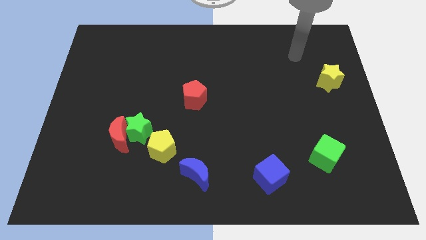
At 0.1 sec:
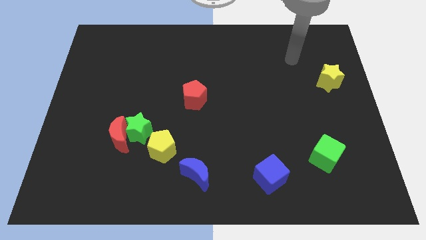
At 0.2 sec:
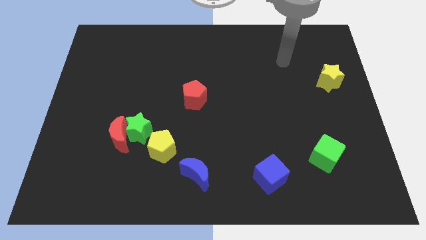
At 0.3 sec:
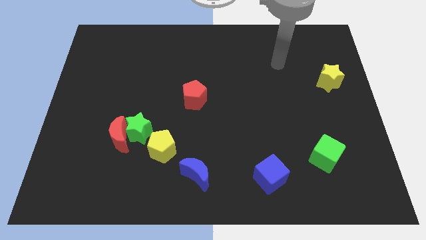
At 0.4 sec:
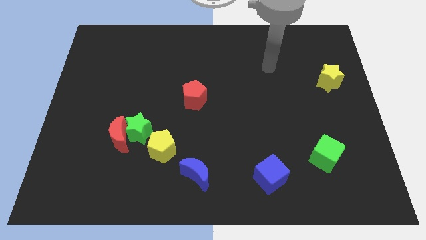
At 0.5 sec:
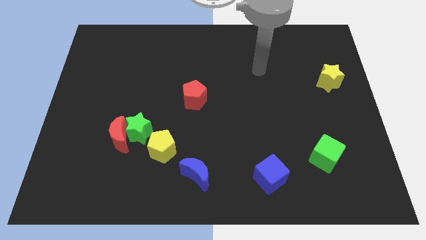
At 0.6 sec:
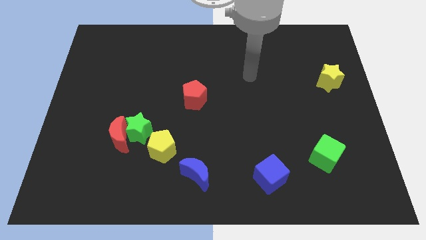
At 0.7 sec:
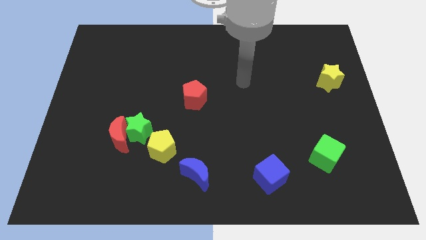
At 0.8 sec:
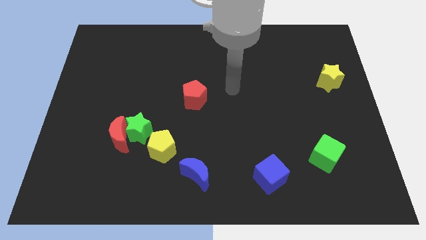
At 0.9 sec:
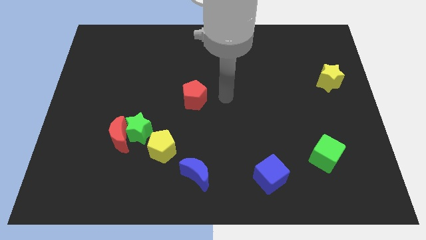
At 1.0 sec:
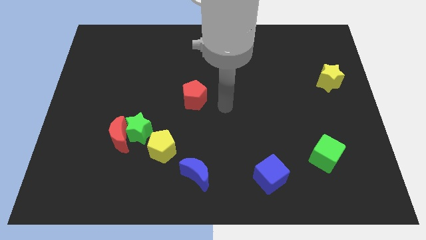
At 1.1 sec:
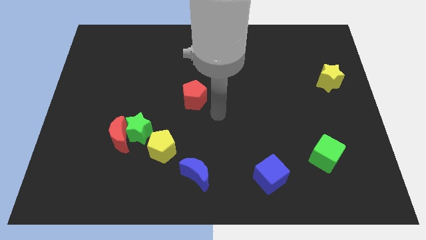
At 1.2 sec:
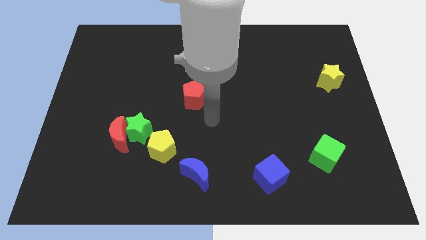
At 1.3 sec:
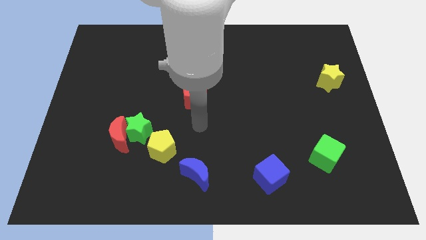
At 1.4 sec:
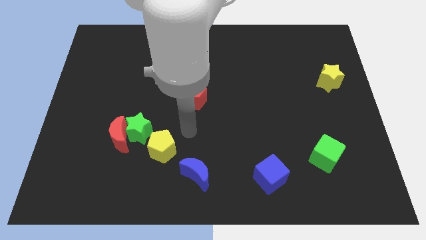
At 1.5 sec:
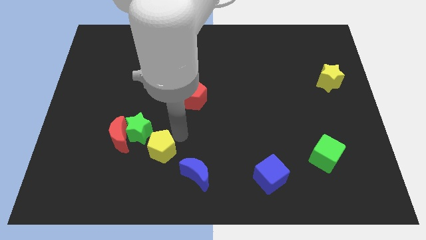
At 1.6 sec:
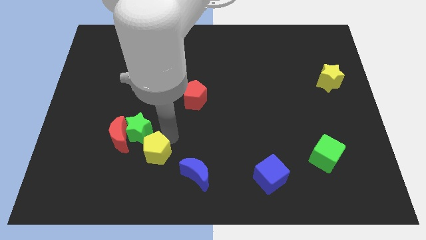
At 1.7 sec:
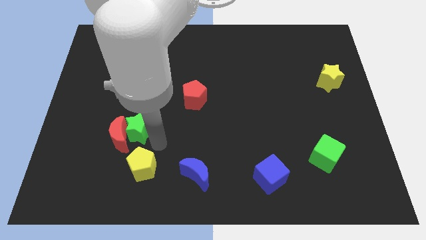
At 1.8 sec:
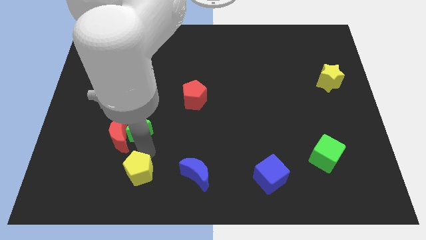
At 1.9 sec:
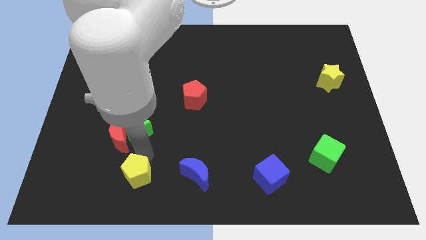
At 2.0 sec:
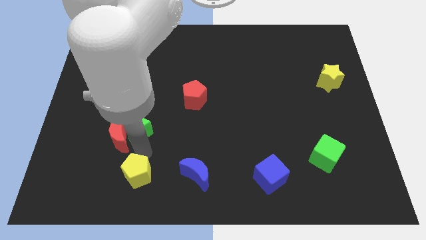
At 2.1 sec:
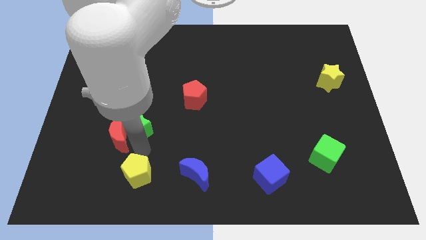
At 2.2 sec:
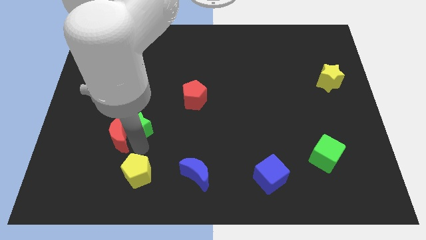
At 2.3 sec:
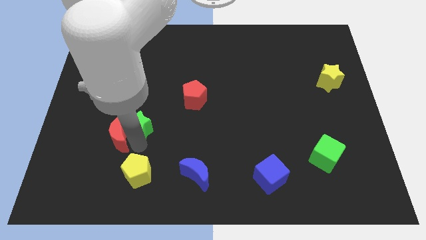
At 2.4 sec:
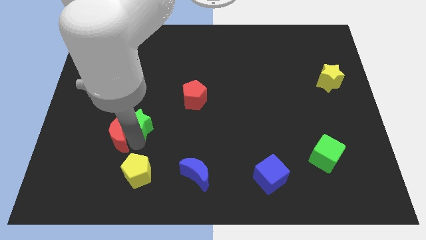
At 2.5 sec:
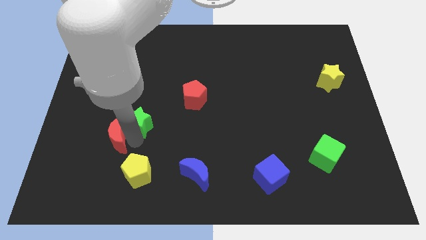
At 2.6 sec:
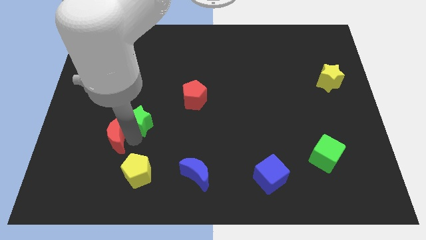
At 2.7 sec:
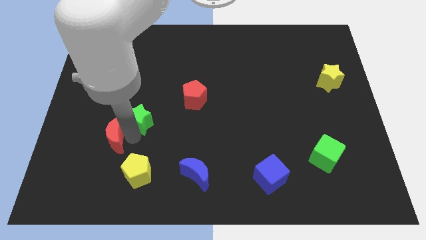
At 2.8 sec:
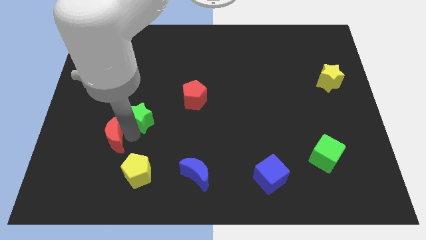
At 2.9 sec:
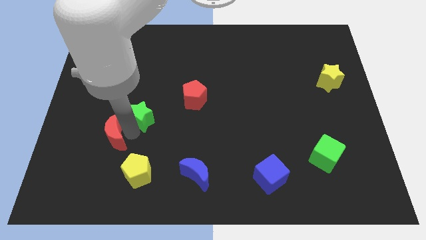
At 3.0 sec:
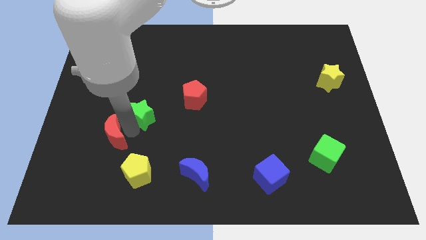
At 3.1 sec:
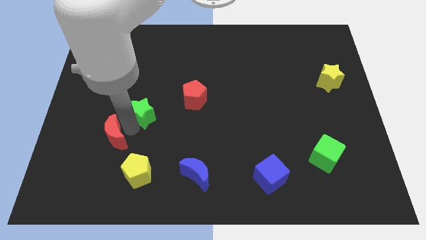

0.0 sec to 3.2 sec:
pull the green star apart from the red moon and yellow pentagon

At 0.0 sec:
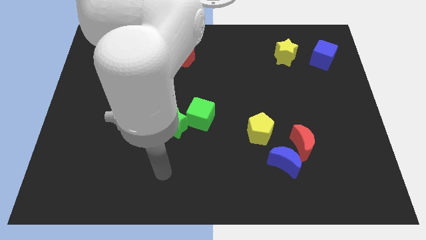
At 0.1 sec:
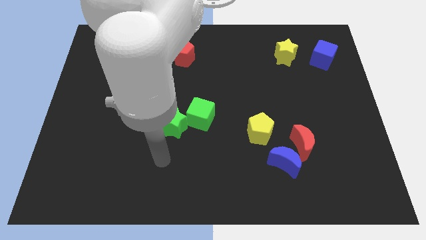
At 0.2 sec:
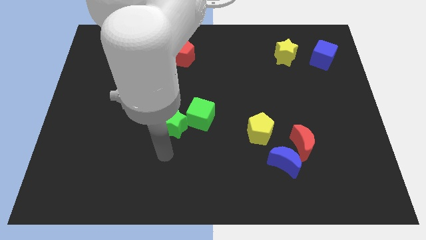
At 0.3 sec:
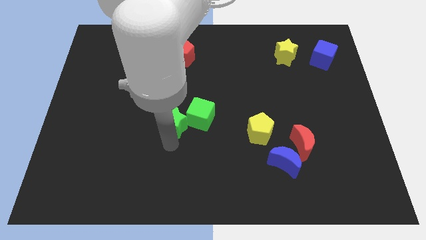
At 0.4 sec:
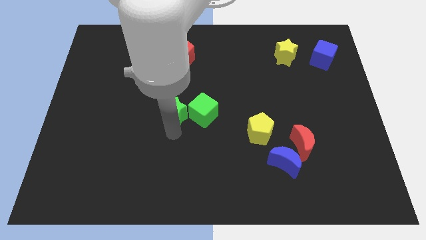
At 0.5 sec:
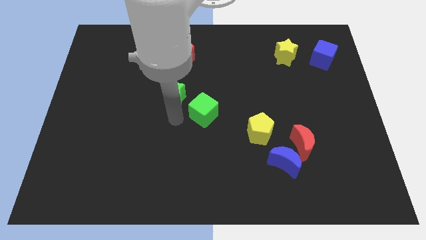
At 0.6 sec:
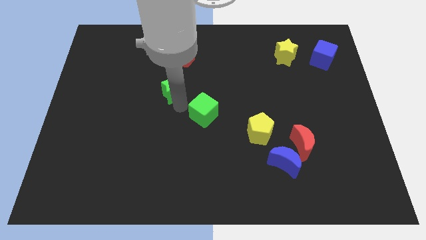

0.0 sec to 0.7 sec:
move the green cube away from the green star

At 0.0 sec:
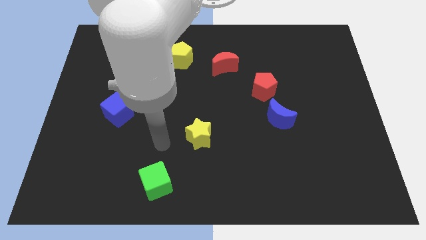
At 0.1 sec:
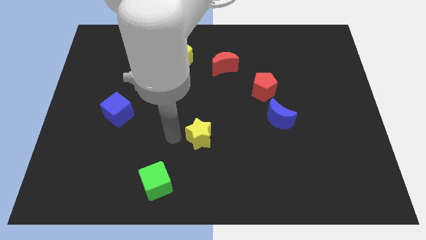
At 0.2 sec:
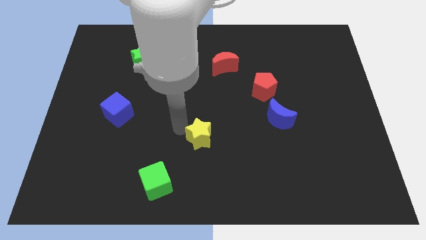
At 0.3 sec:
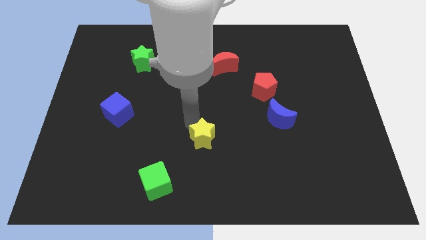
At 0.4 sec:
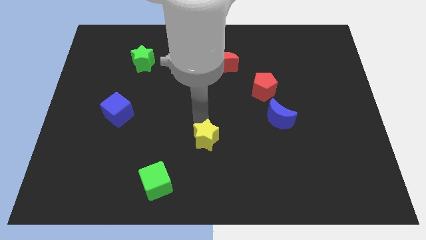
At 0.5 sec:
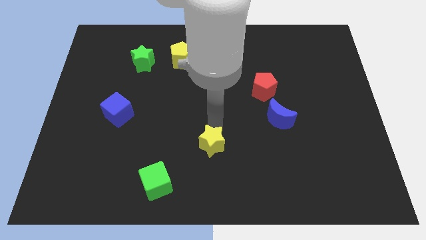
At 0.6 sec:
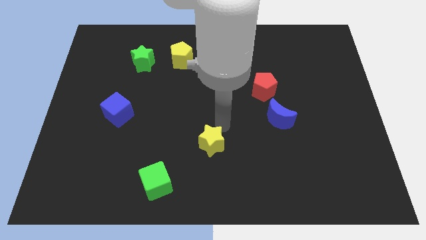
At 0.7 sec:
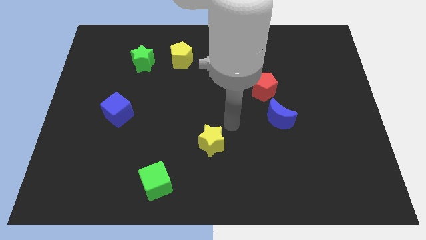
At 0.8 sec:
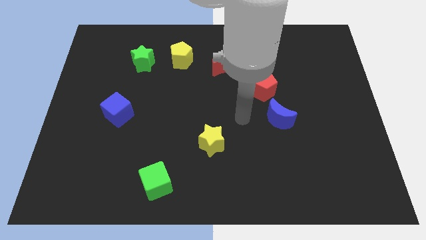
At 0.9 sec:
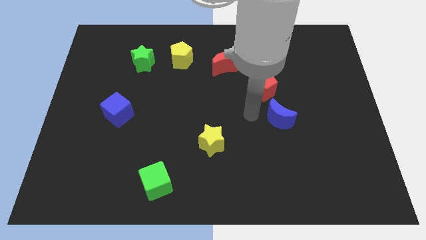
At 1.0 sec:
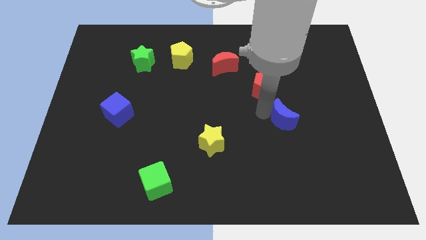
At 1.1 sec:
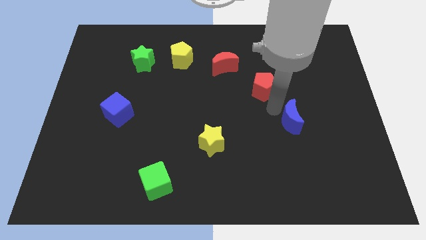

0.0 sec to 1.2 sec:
pull the red pentagon apart from the blue moon

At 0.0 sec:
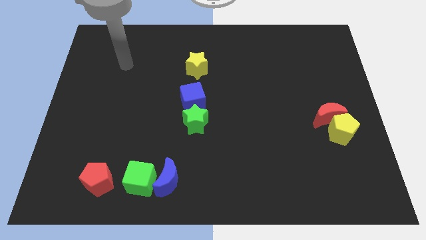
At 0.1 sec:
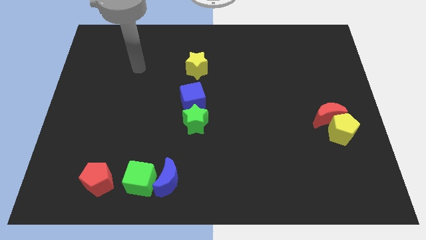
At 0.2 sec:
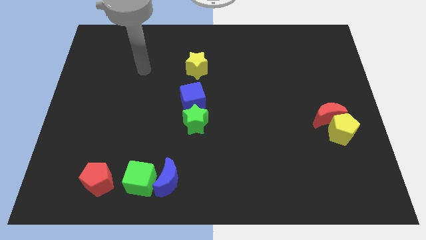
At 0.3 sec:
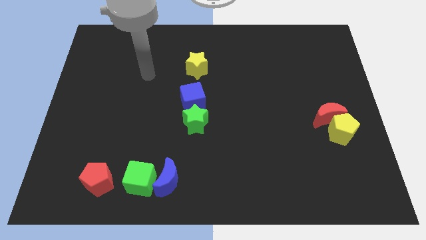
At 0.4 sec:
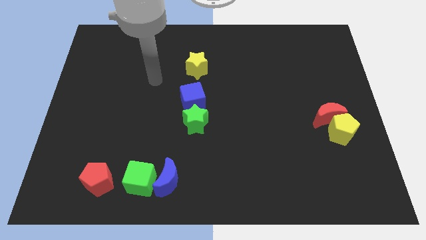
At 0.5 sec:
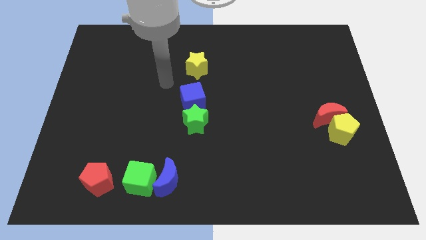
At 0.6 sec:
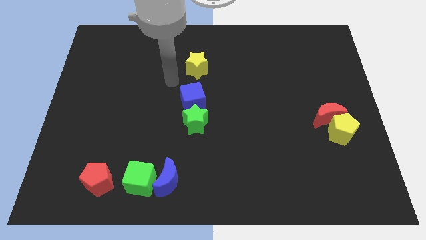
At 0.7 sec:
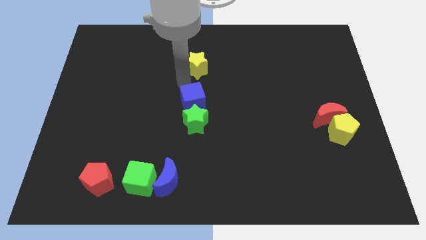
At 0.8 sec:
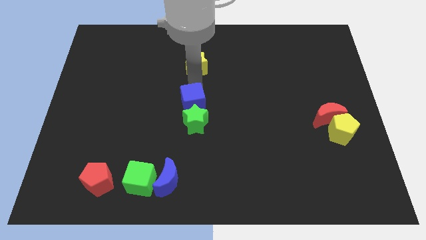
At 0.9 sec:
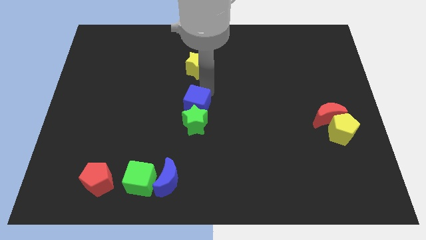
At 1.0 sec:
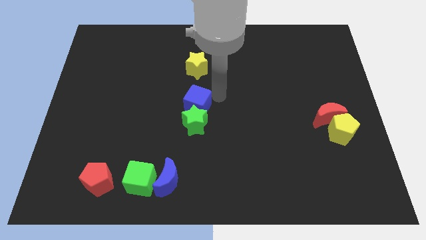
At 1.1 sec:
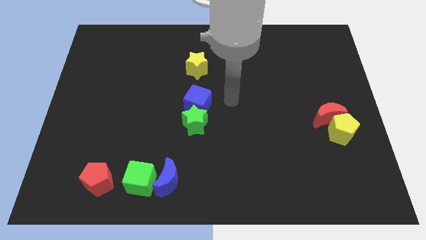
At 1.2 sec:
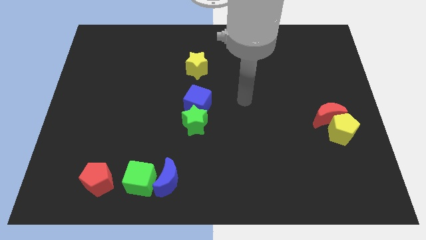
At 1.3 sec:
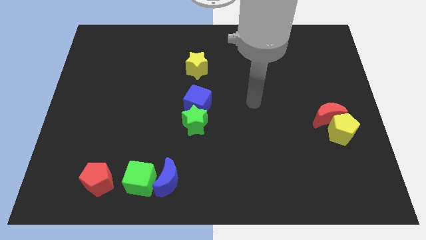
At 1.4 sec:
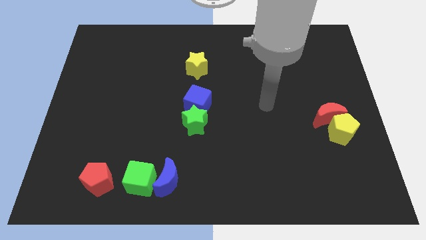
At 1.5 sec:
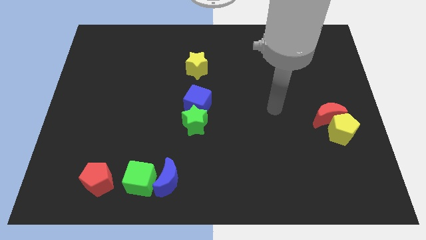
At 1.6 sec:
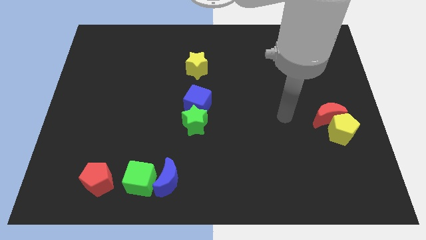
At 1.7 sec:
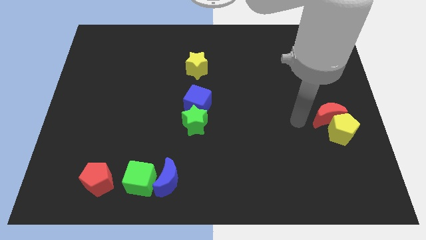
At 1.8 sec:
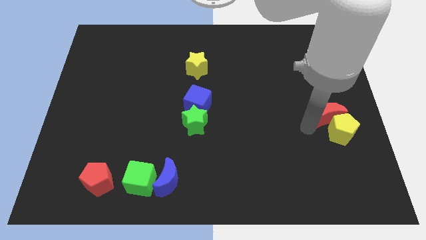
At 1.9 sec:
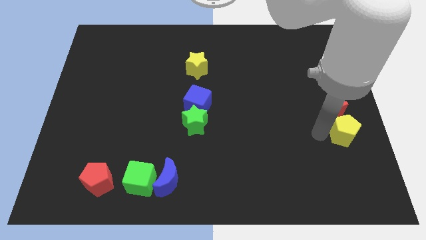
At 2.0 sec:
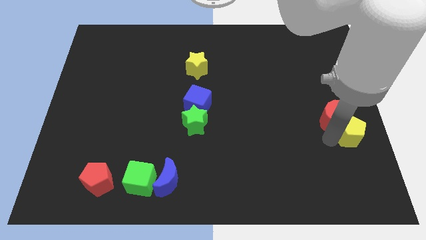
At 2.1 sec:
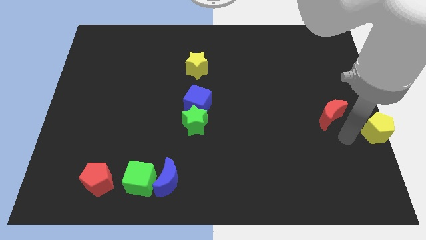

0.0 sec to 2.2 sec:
separate the red moon from the yellow pentagon

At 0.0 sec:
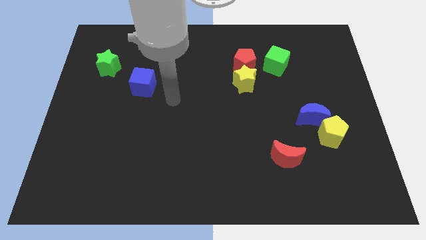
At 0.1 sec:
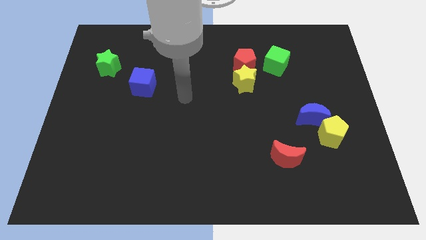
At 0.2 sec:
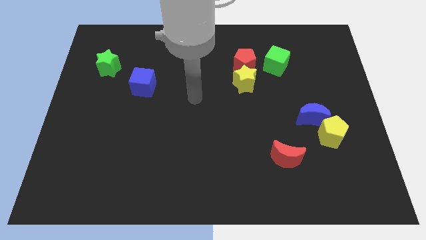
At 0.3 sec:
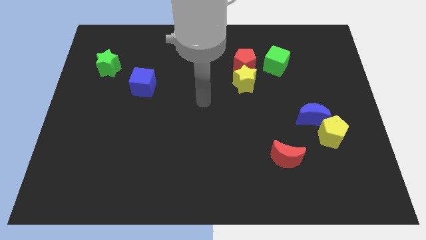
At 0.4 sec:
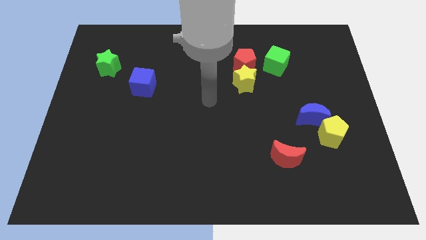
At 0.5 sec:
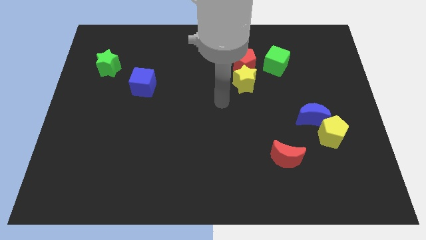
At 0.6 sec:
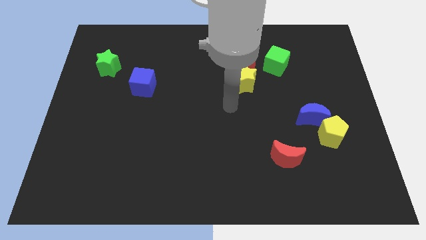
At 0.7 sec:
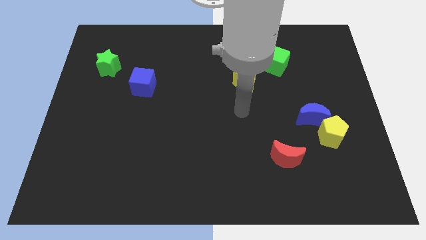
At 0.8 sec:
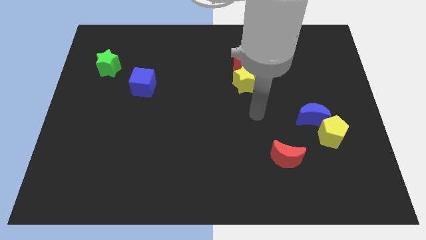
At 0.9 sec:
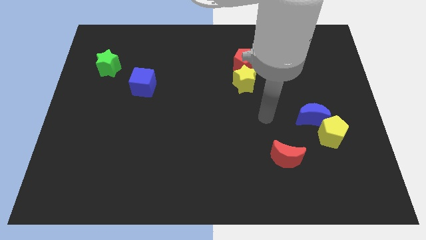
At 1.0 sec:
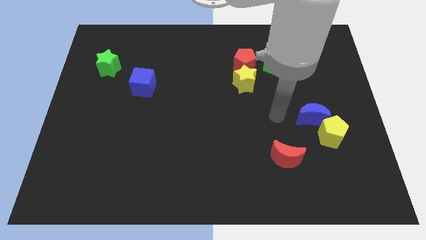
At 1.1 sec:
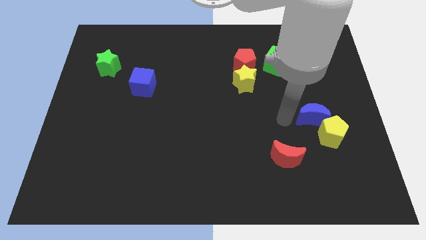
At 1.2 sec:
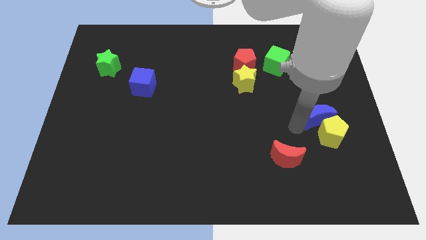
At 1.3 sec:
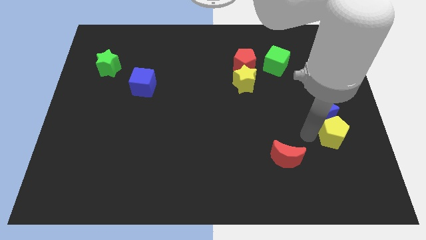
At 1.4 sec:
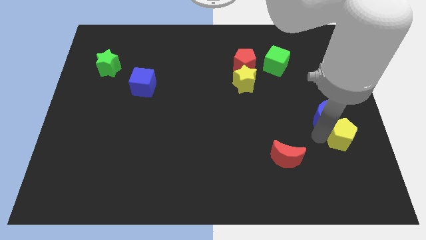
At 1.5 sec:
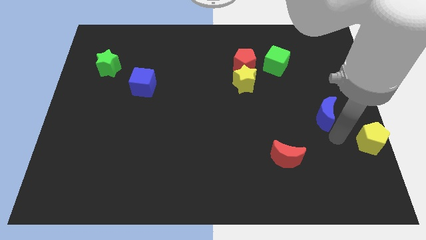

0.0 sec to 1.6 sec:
separate the blue moon from the yellow pentagon

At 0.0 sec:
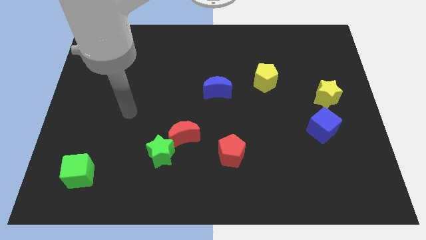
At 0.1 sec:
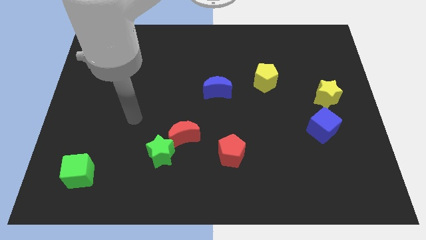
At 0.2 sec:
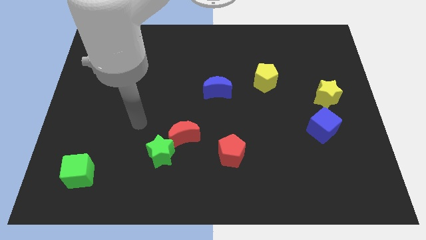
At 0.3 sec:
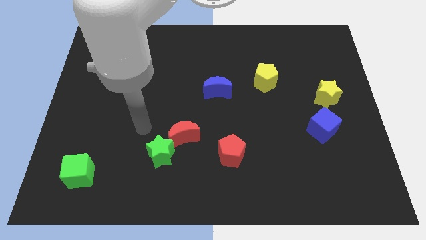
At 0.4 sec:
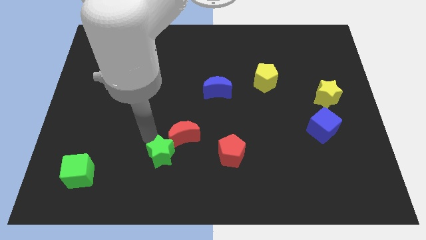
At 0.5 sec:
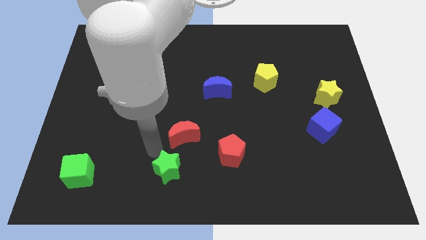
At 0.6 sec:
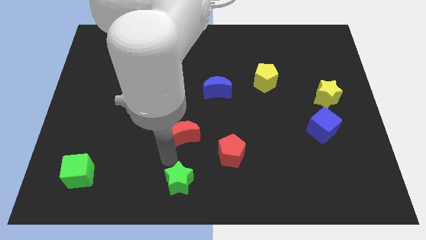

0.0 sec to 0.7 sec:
separate the red moon from the green star
